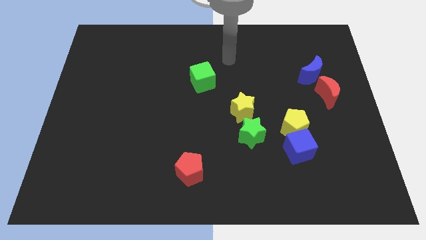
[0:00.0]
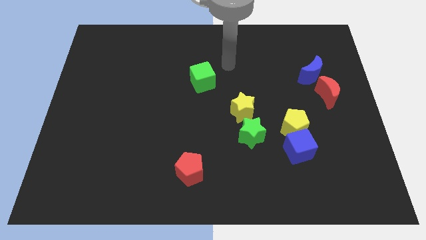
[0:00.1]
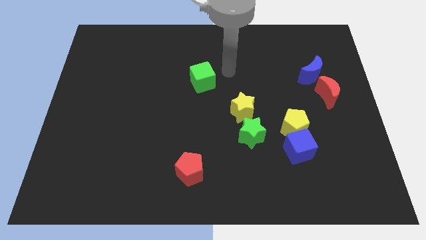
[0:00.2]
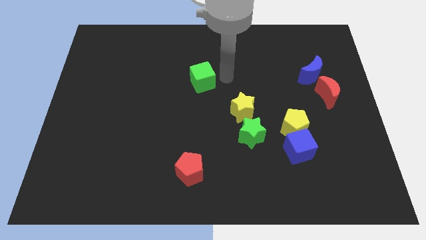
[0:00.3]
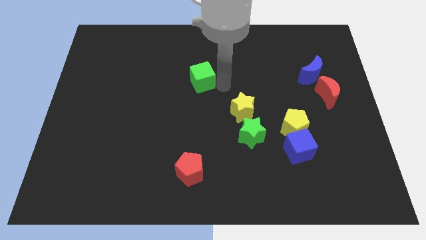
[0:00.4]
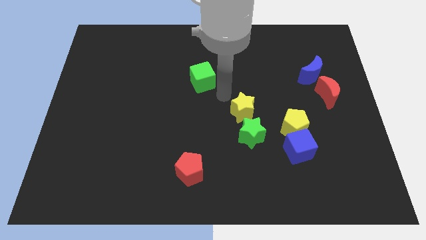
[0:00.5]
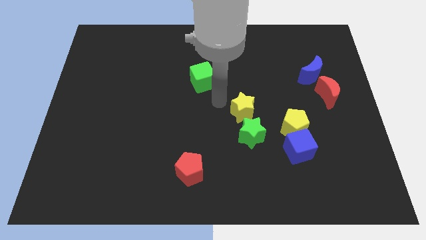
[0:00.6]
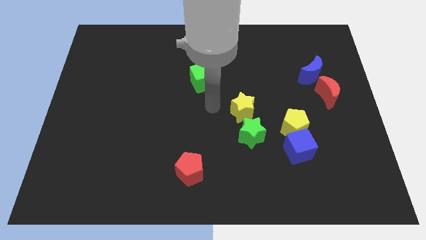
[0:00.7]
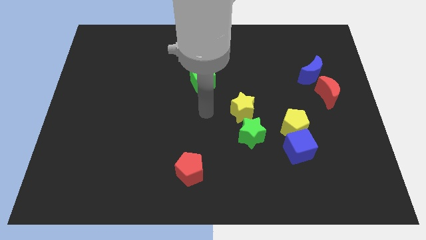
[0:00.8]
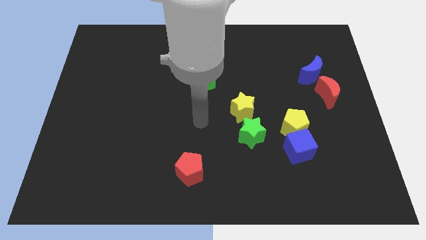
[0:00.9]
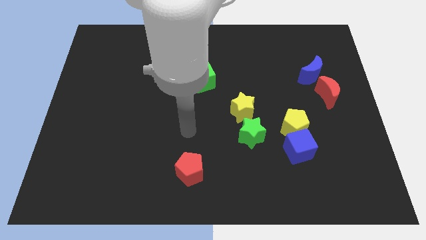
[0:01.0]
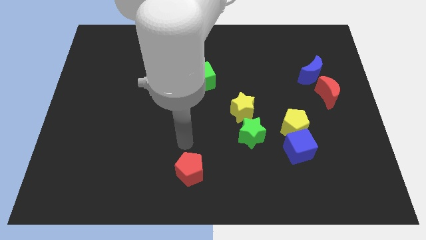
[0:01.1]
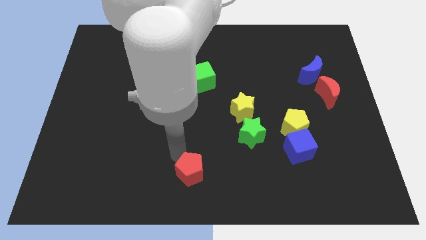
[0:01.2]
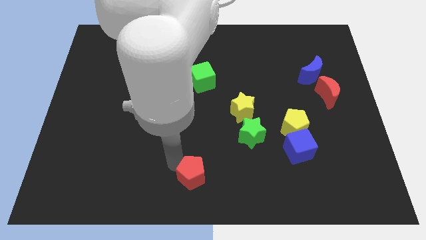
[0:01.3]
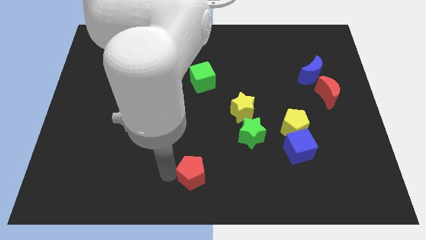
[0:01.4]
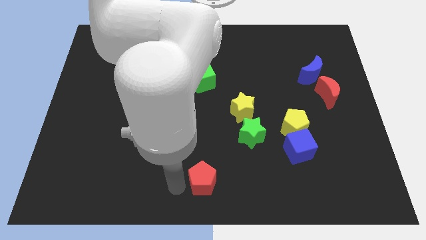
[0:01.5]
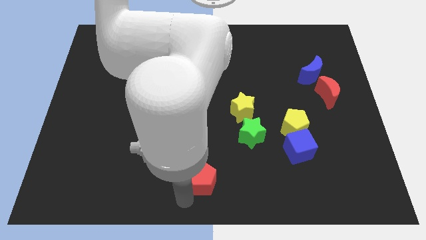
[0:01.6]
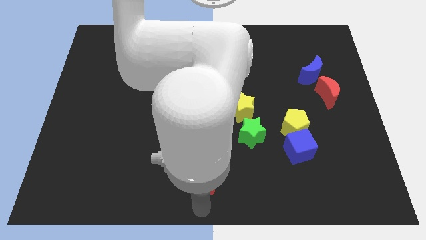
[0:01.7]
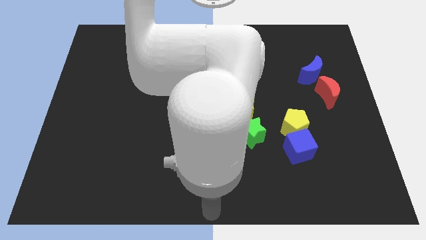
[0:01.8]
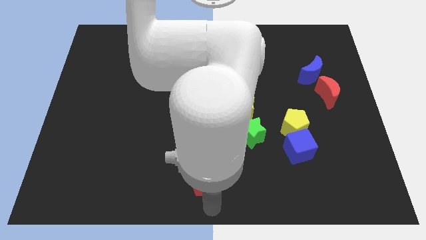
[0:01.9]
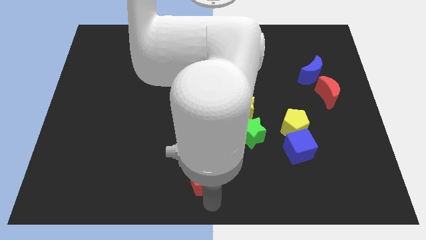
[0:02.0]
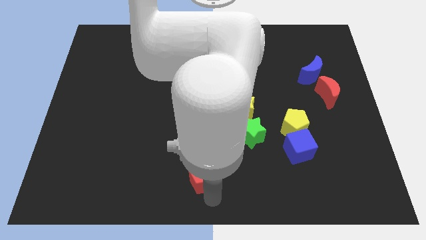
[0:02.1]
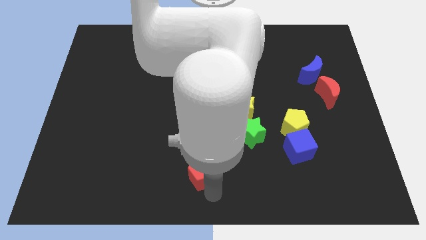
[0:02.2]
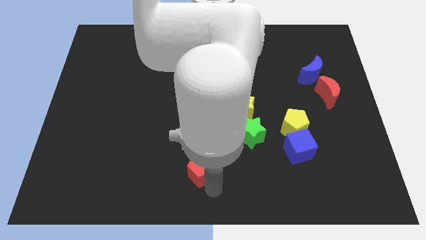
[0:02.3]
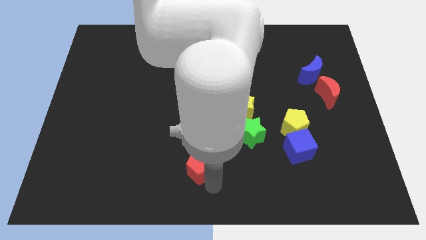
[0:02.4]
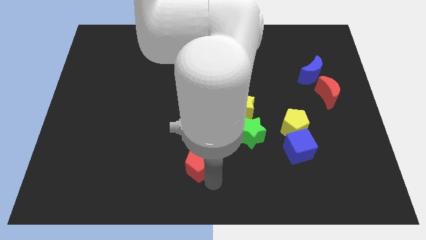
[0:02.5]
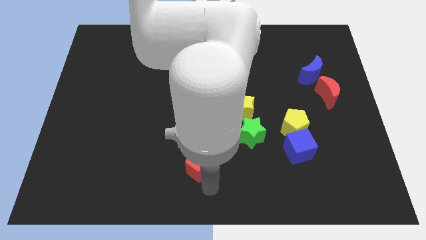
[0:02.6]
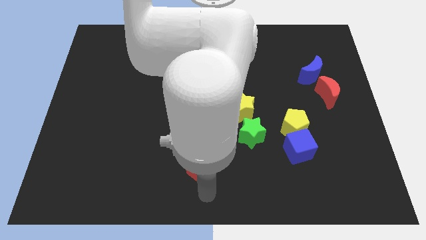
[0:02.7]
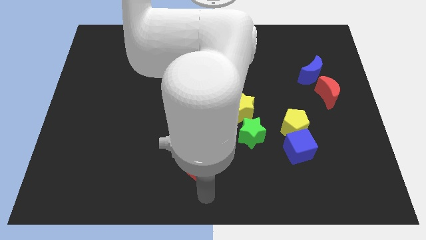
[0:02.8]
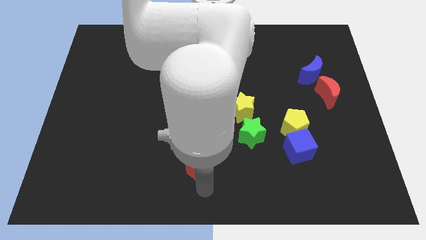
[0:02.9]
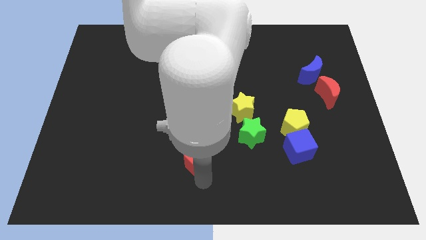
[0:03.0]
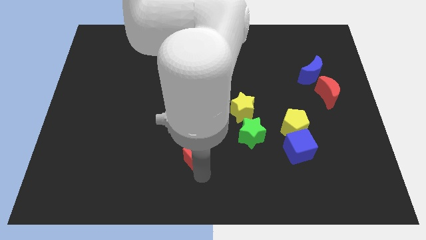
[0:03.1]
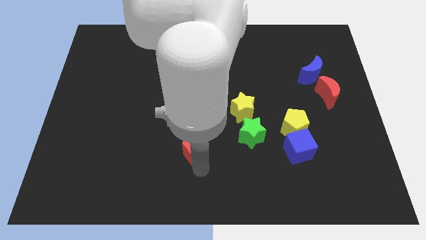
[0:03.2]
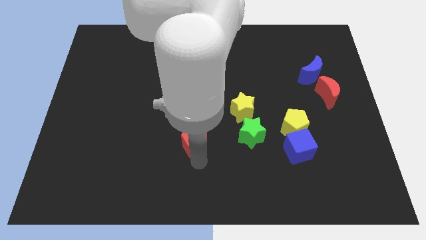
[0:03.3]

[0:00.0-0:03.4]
slightly slide the red pentagon up

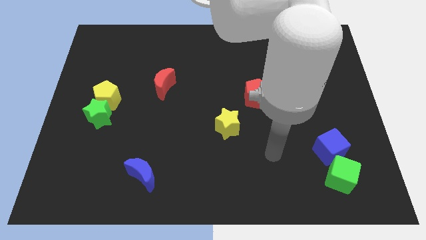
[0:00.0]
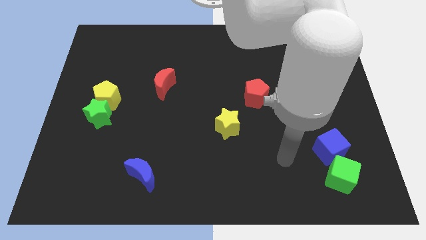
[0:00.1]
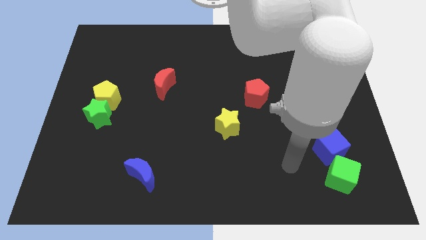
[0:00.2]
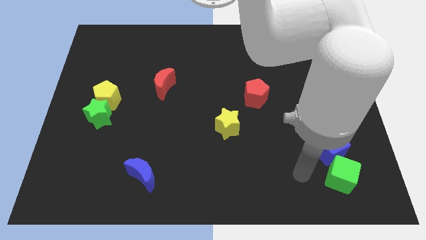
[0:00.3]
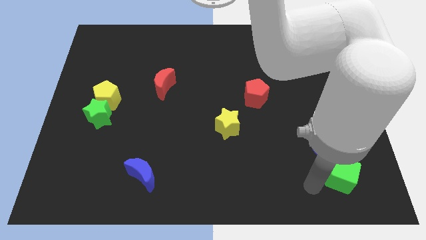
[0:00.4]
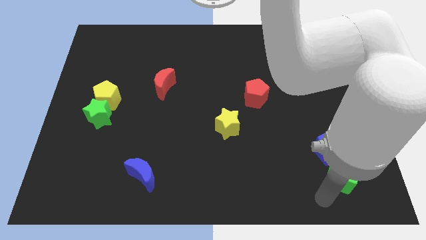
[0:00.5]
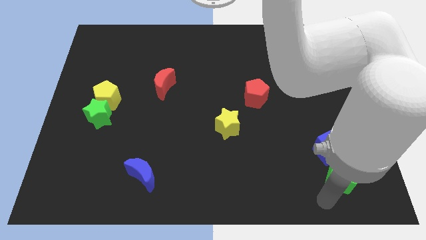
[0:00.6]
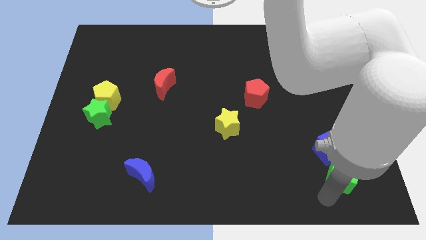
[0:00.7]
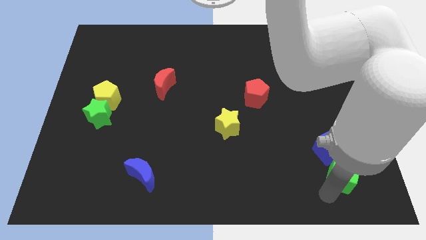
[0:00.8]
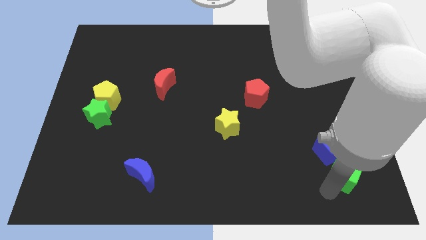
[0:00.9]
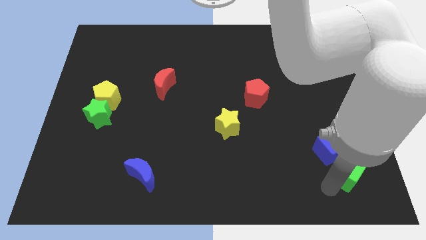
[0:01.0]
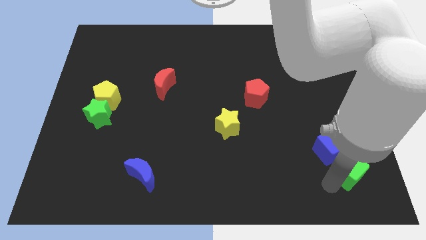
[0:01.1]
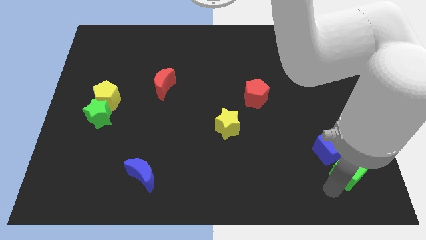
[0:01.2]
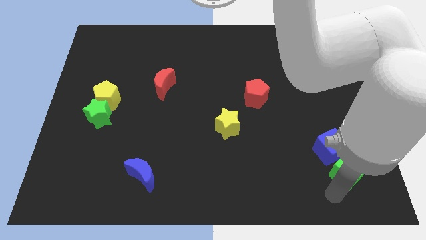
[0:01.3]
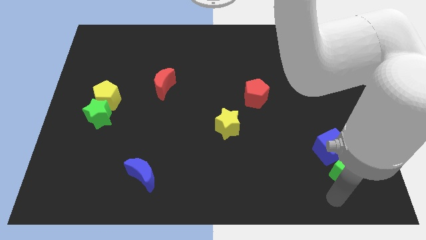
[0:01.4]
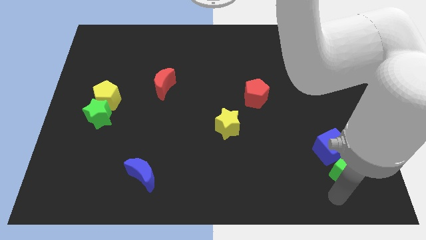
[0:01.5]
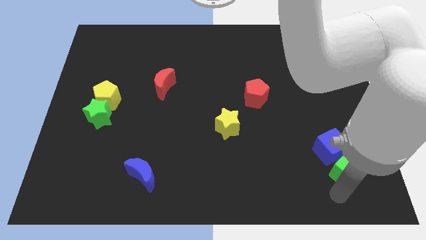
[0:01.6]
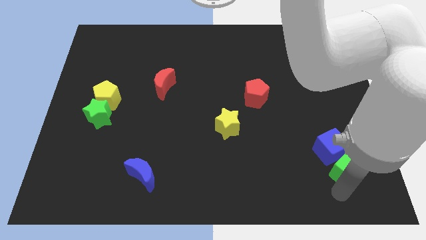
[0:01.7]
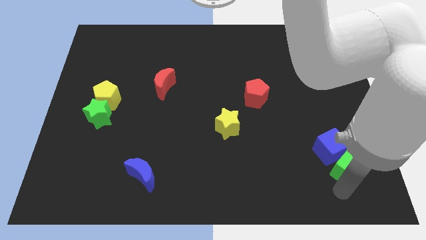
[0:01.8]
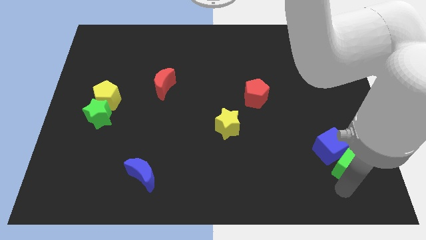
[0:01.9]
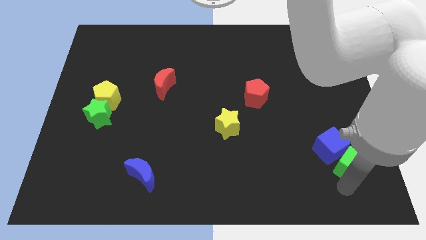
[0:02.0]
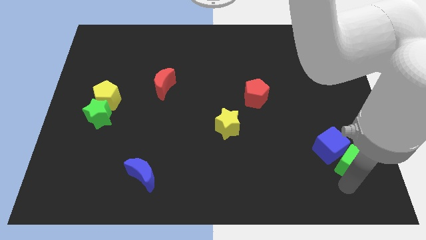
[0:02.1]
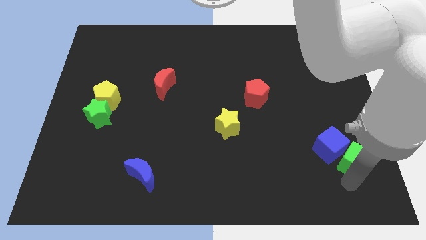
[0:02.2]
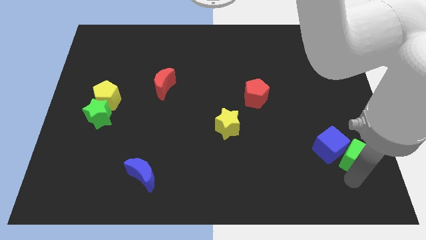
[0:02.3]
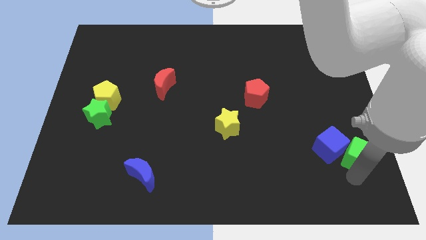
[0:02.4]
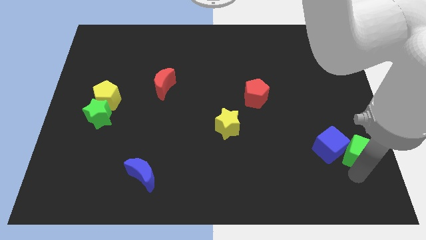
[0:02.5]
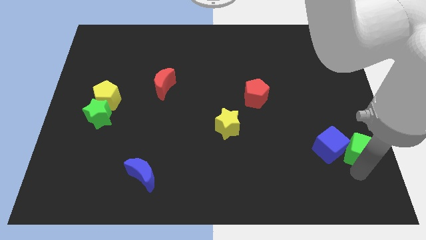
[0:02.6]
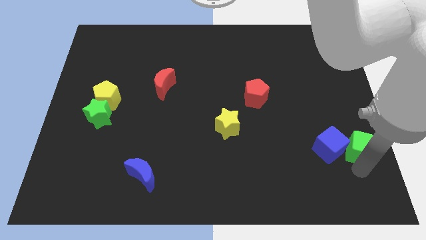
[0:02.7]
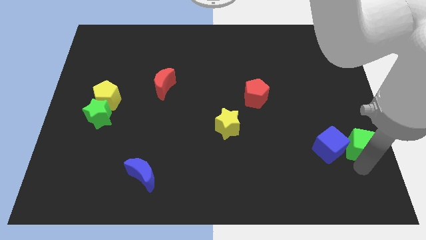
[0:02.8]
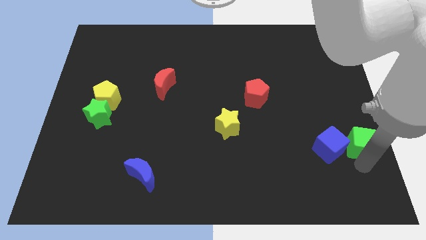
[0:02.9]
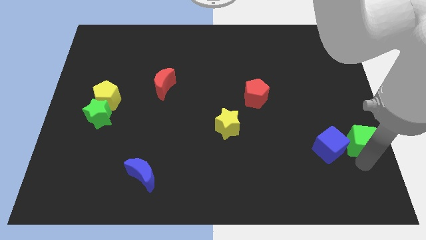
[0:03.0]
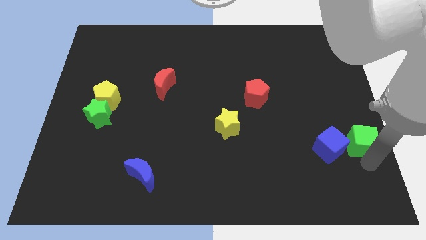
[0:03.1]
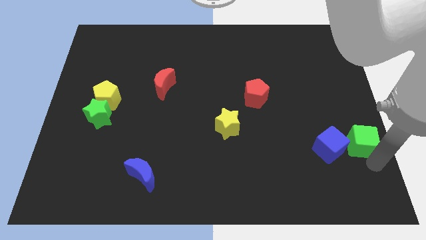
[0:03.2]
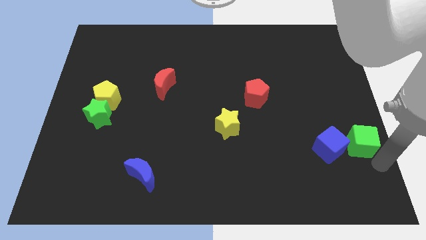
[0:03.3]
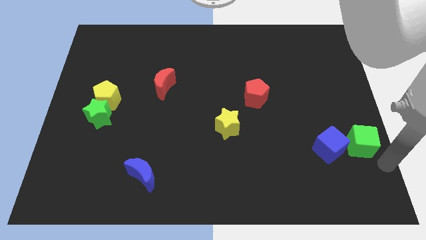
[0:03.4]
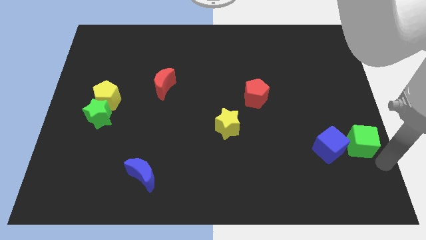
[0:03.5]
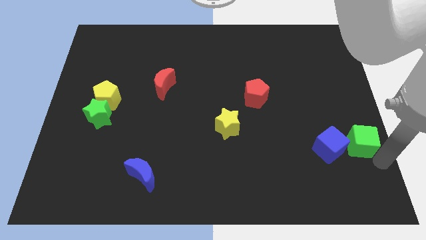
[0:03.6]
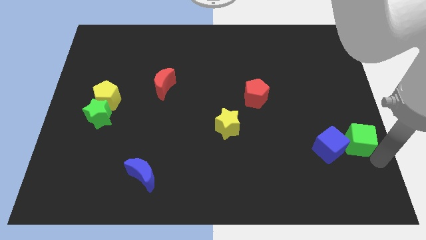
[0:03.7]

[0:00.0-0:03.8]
slightly slide the green cube up

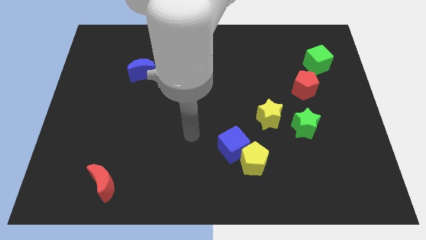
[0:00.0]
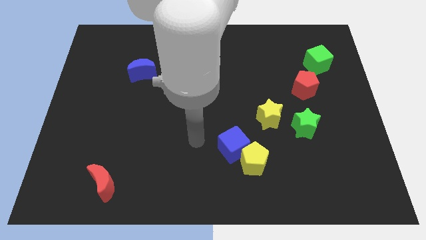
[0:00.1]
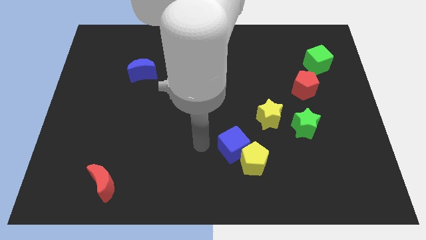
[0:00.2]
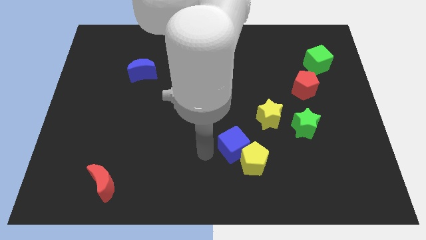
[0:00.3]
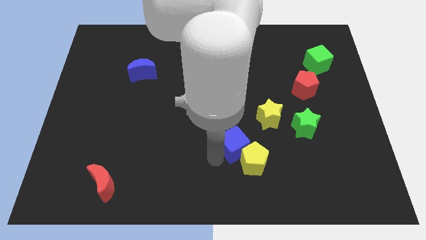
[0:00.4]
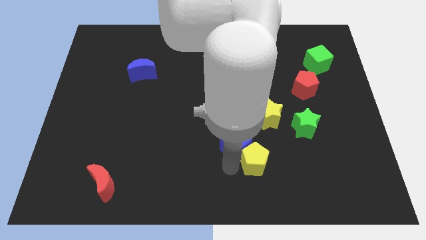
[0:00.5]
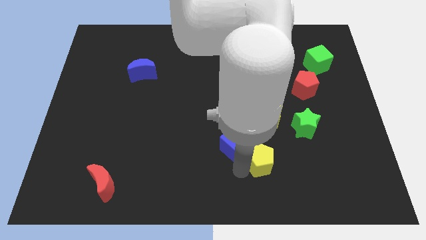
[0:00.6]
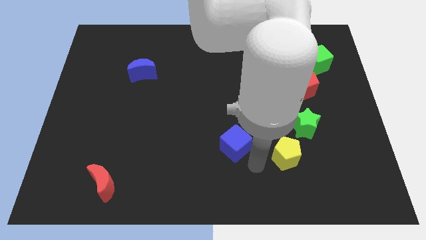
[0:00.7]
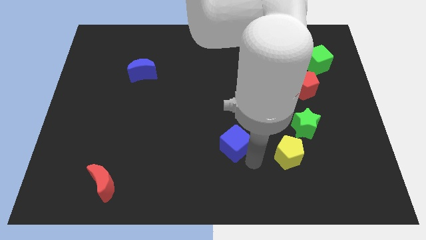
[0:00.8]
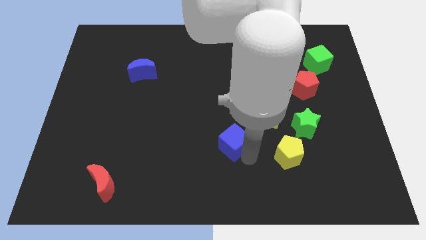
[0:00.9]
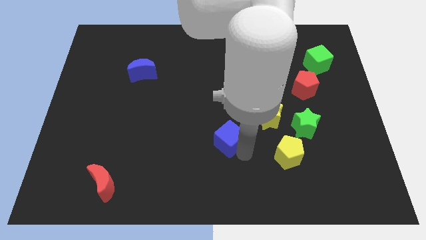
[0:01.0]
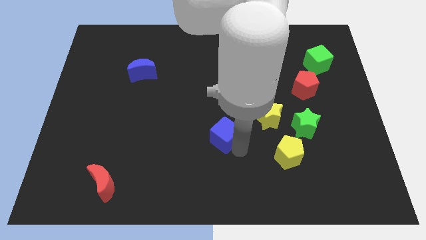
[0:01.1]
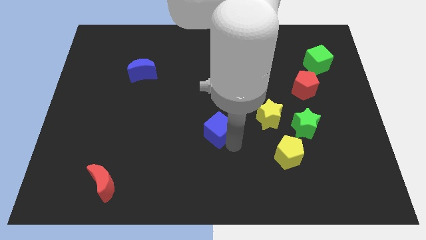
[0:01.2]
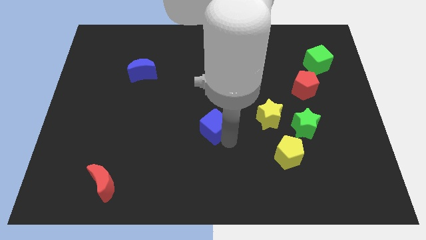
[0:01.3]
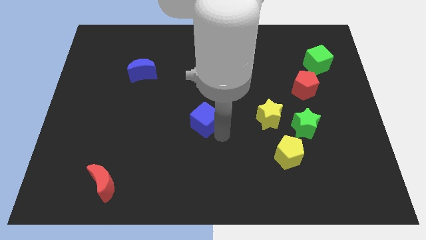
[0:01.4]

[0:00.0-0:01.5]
move the blue cube a little bit diagonally up and to the left
